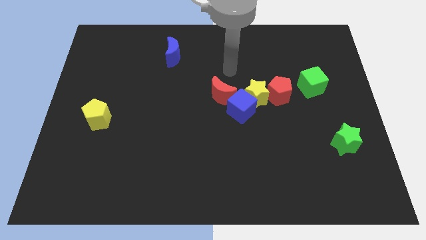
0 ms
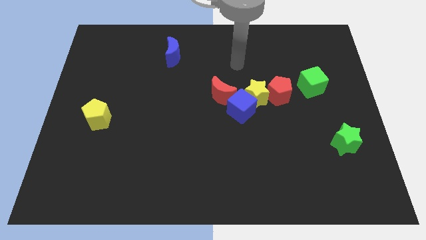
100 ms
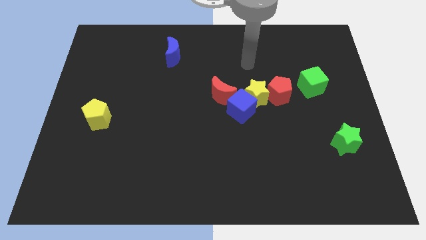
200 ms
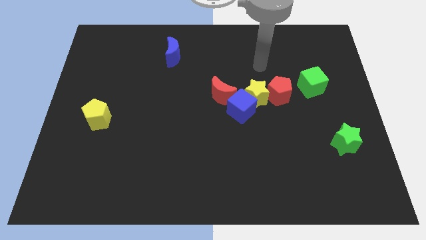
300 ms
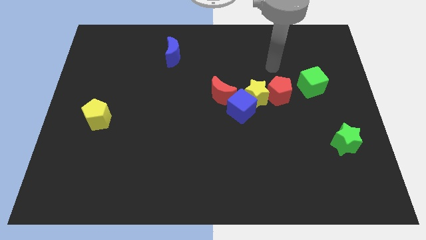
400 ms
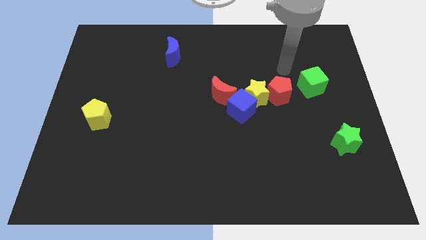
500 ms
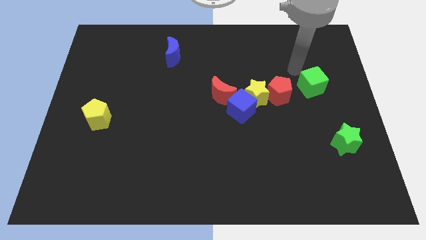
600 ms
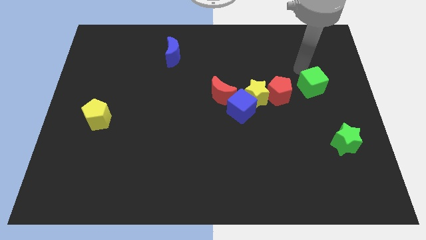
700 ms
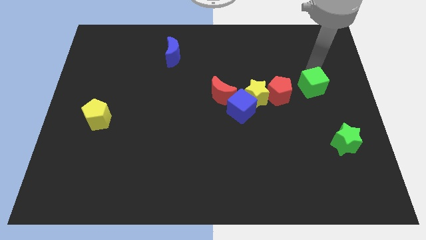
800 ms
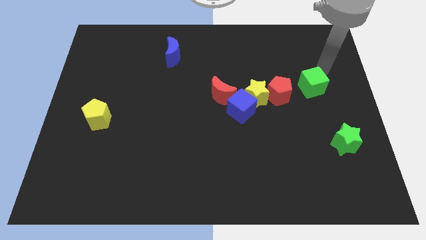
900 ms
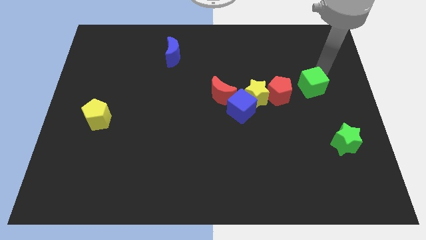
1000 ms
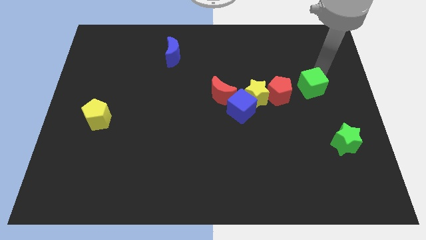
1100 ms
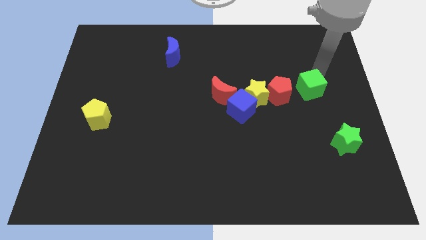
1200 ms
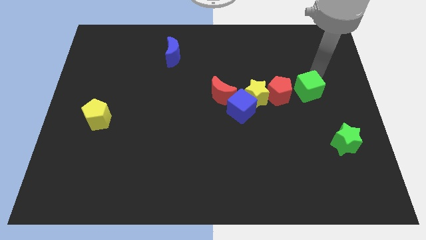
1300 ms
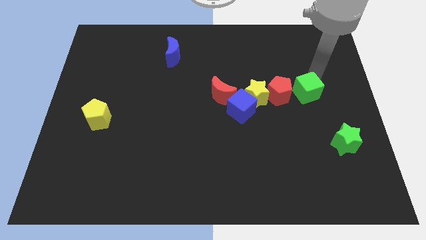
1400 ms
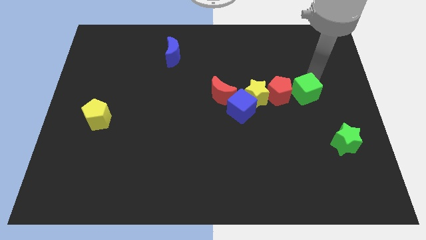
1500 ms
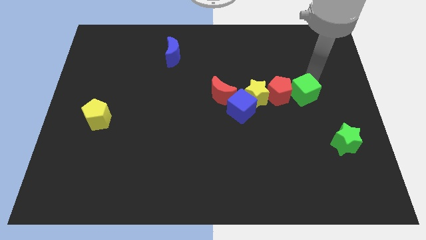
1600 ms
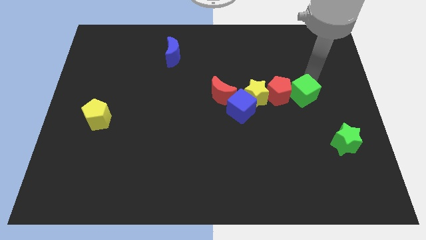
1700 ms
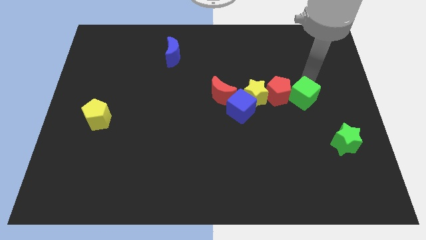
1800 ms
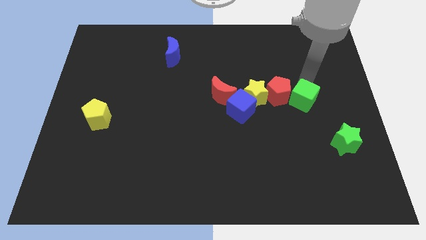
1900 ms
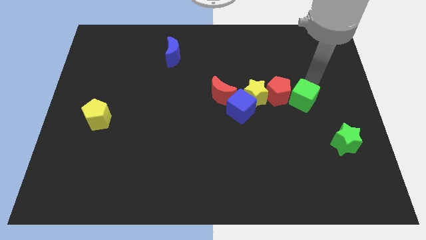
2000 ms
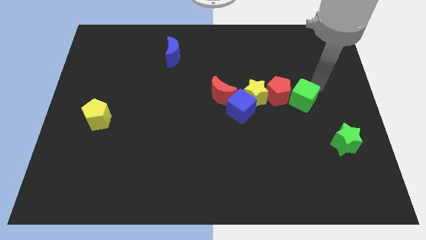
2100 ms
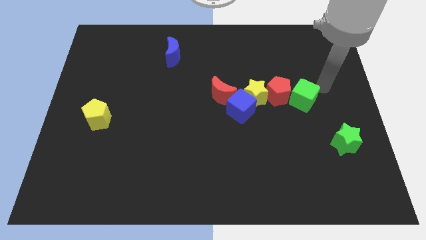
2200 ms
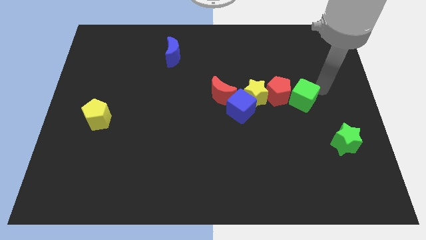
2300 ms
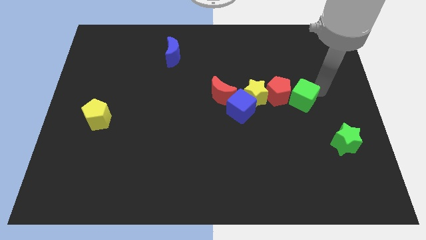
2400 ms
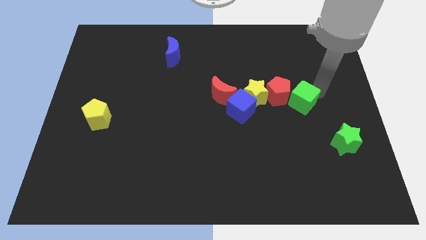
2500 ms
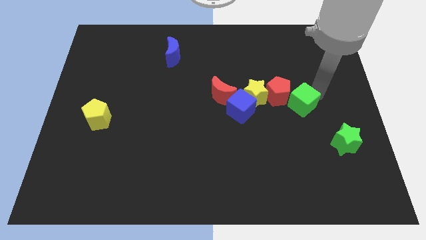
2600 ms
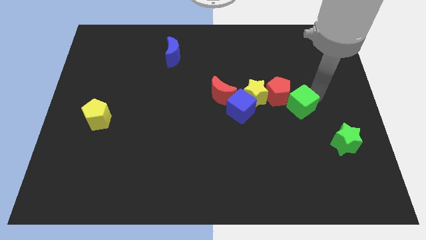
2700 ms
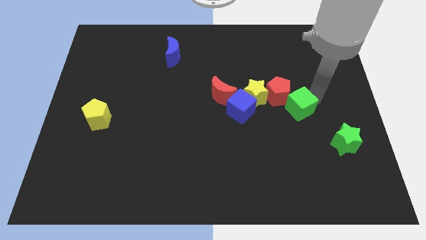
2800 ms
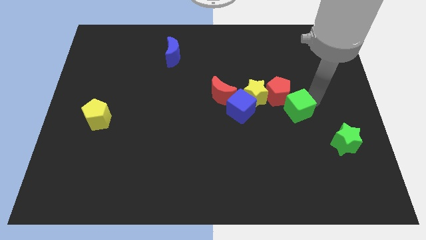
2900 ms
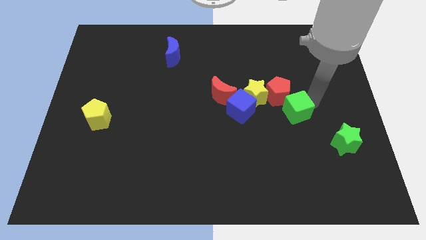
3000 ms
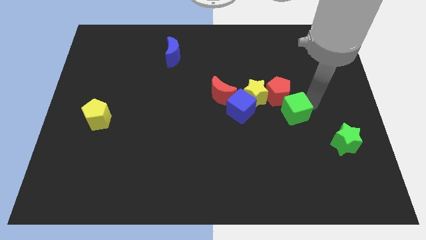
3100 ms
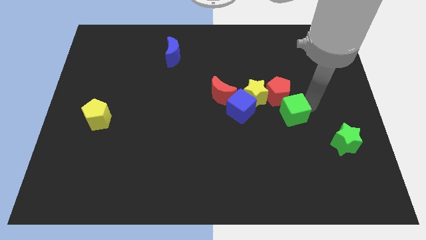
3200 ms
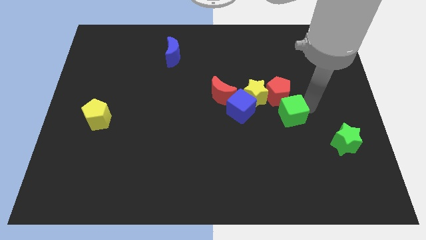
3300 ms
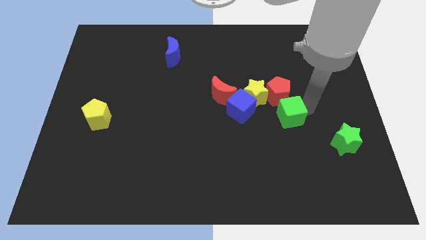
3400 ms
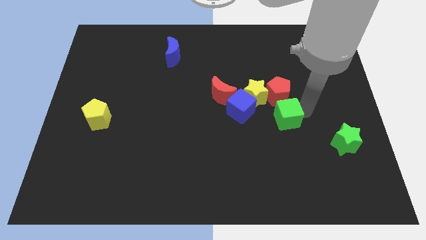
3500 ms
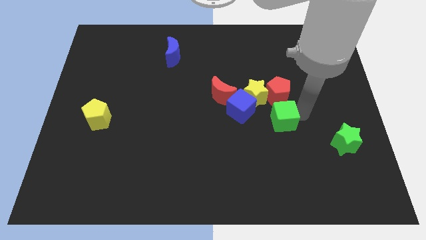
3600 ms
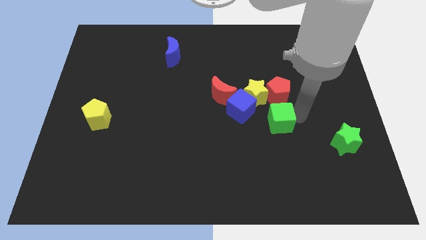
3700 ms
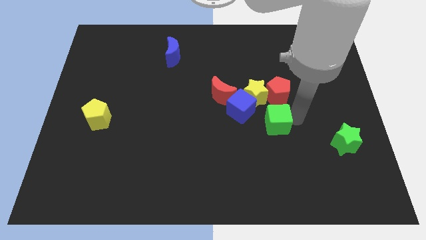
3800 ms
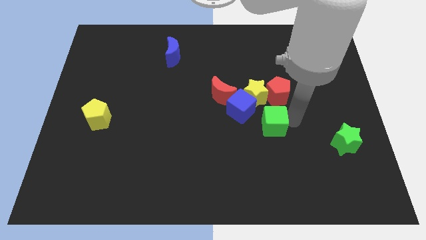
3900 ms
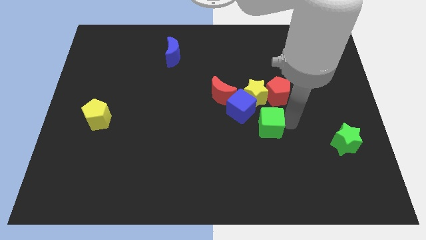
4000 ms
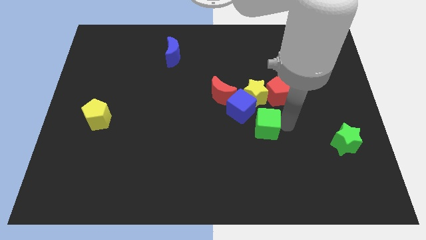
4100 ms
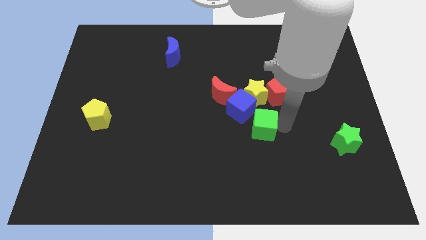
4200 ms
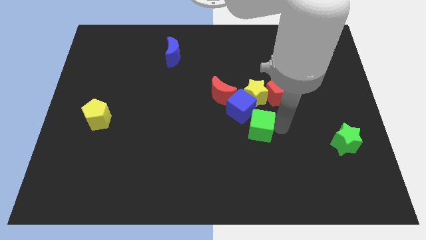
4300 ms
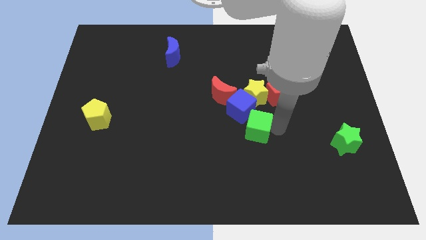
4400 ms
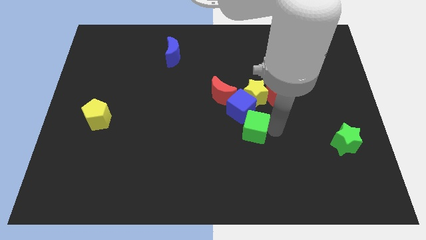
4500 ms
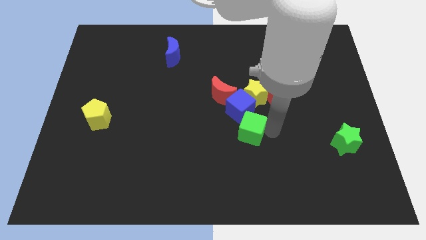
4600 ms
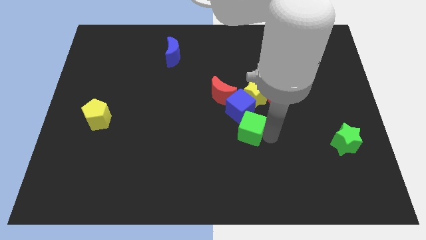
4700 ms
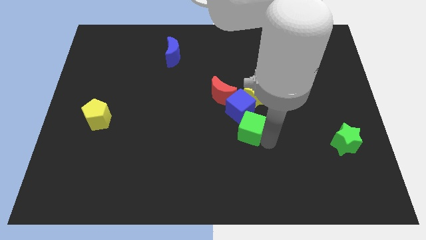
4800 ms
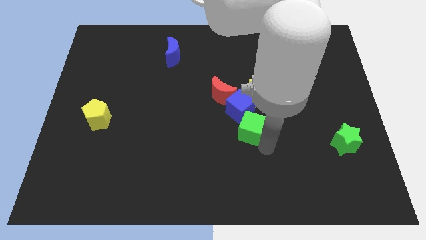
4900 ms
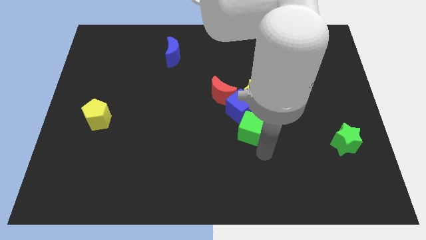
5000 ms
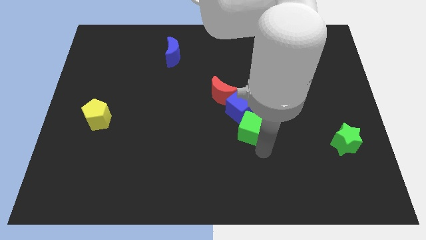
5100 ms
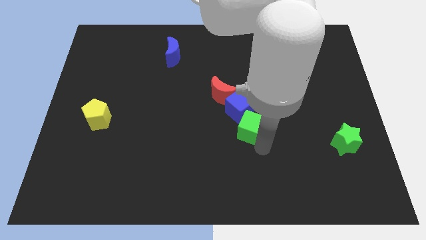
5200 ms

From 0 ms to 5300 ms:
slide the green cube to the blue cube

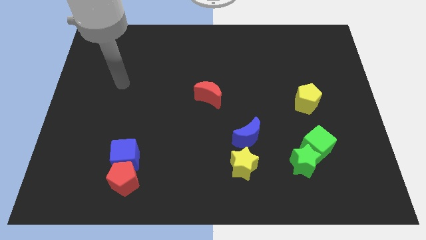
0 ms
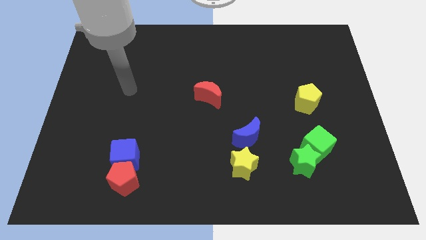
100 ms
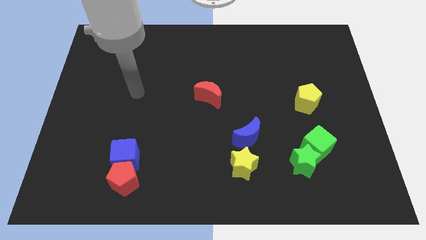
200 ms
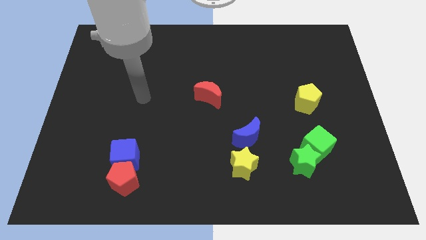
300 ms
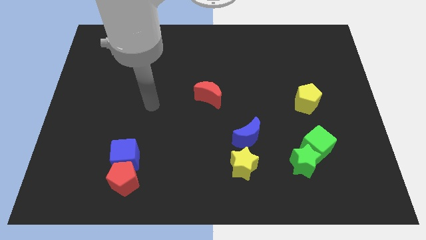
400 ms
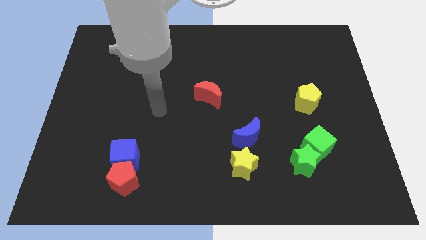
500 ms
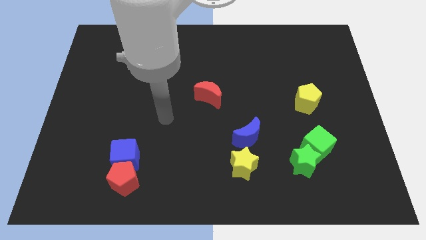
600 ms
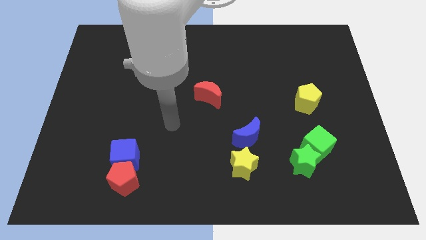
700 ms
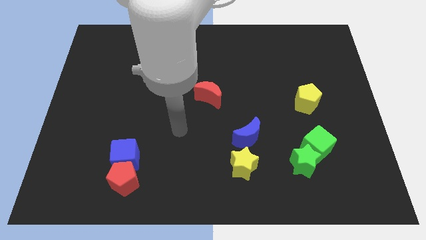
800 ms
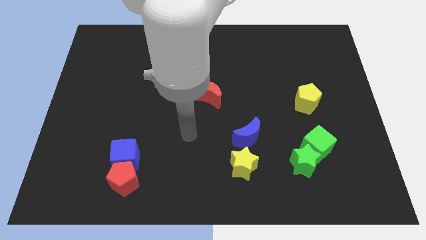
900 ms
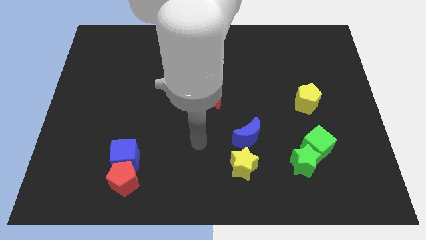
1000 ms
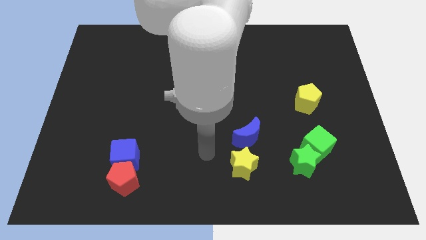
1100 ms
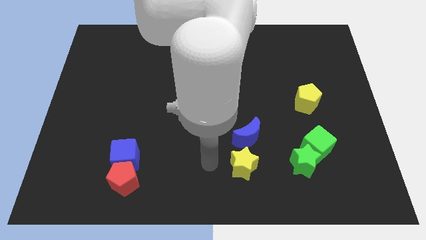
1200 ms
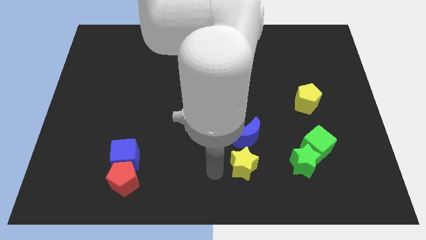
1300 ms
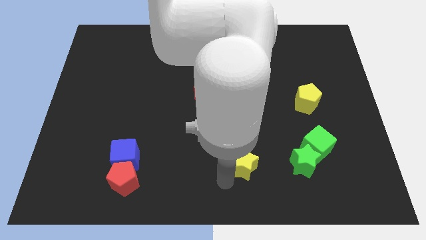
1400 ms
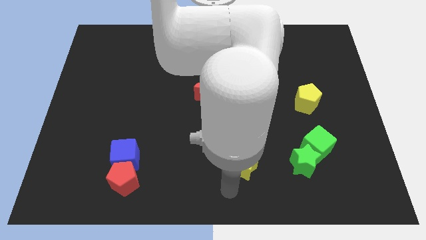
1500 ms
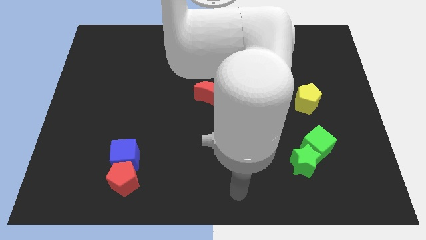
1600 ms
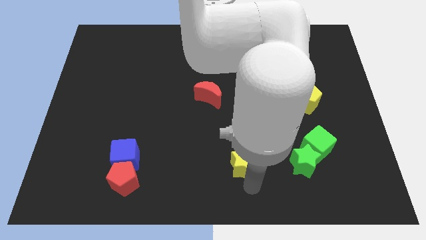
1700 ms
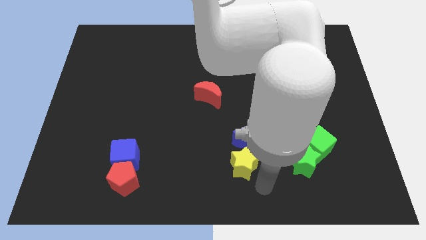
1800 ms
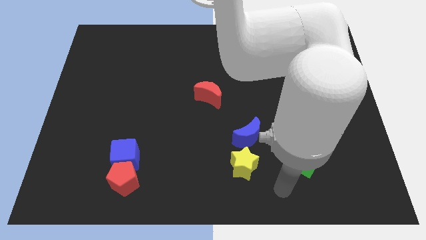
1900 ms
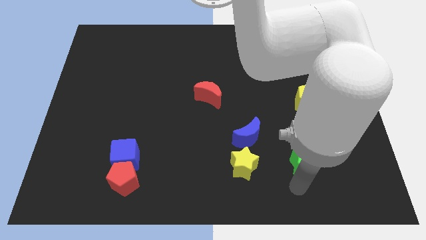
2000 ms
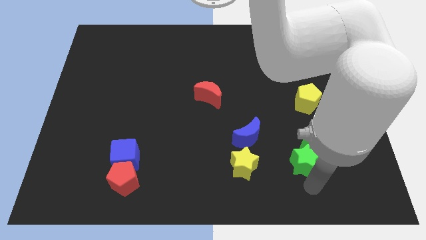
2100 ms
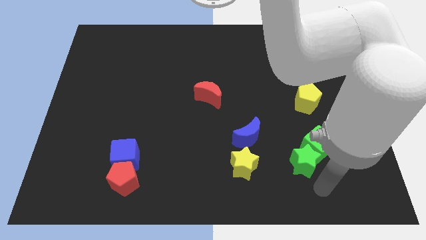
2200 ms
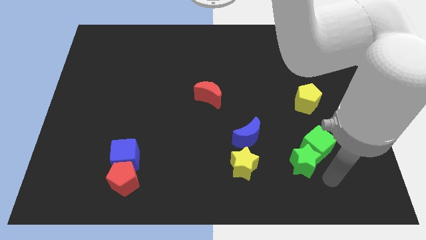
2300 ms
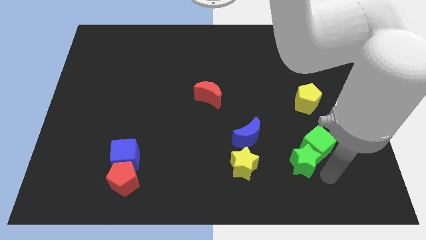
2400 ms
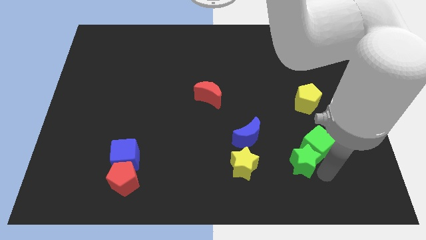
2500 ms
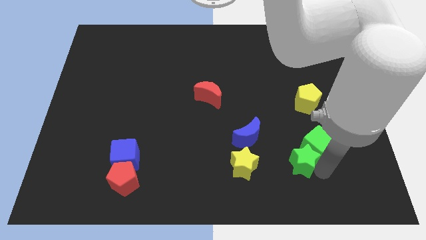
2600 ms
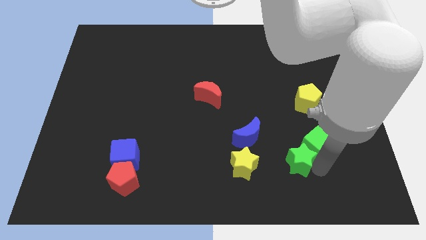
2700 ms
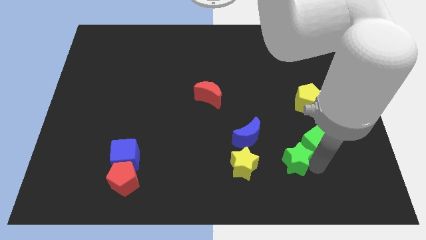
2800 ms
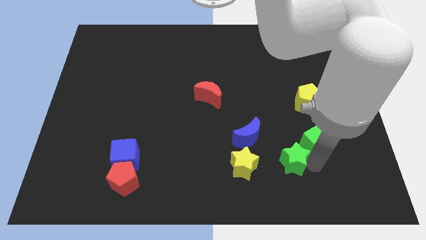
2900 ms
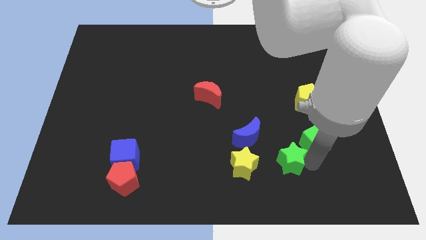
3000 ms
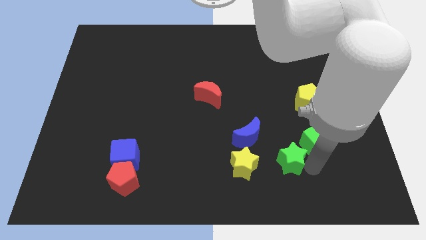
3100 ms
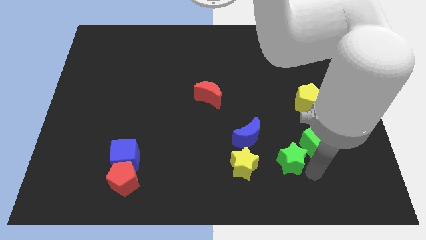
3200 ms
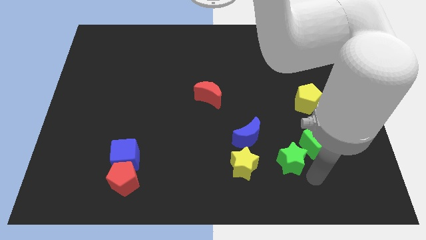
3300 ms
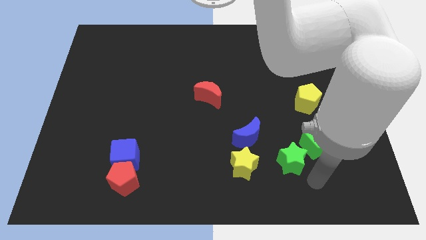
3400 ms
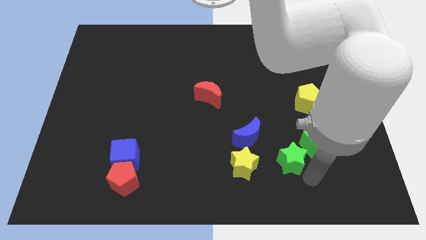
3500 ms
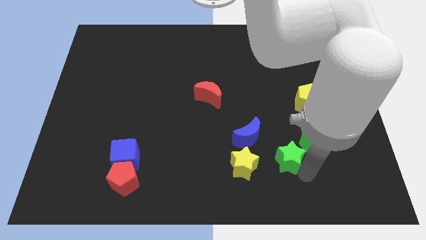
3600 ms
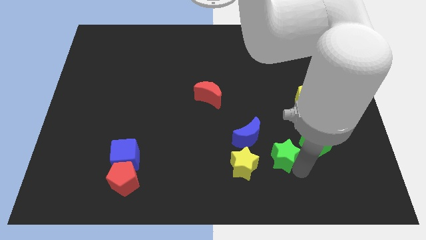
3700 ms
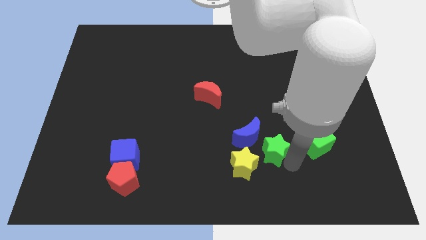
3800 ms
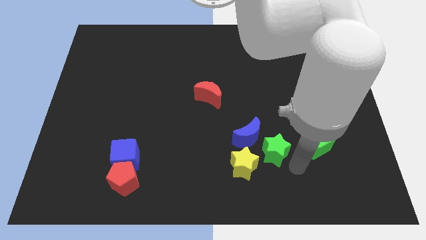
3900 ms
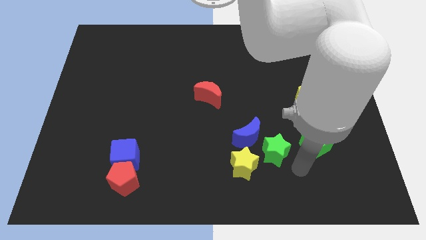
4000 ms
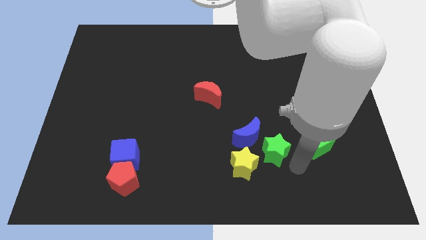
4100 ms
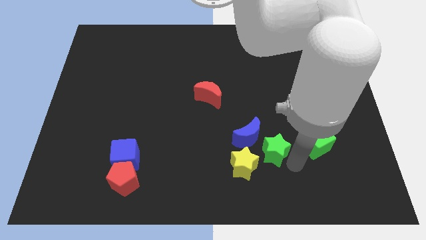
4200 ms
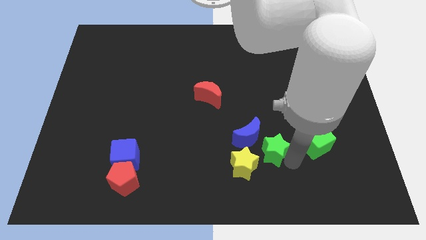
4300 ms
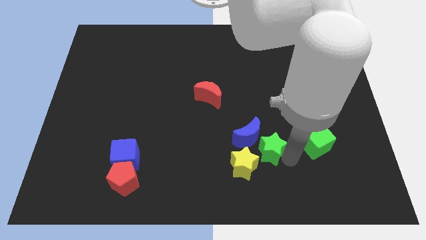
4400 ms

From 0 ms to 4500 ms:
move the green star close to the blue moon
